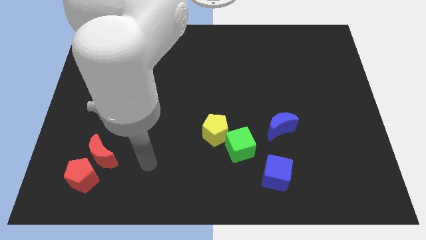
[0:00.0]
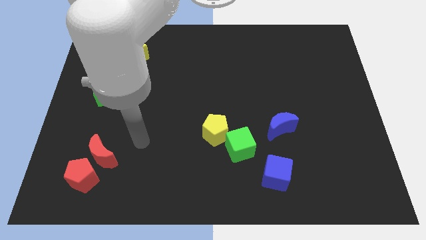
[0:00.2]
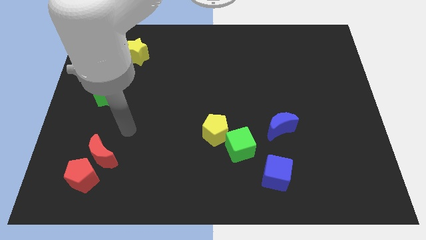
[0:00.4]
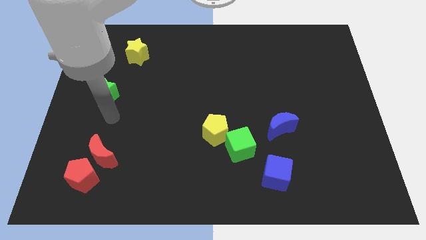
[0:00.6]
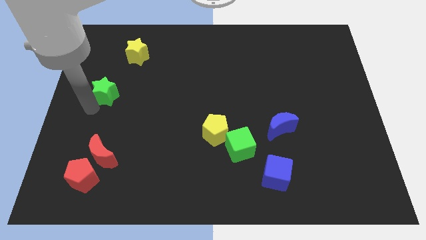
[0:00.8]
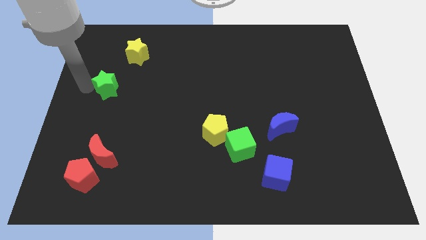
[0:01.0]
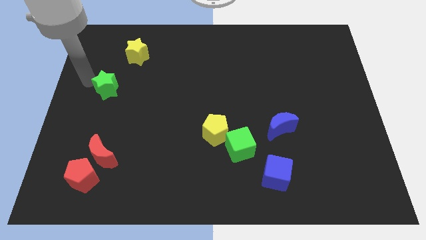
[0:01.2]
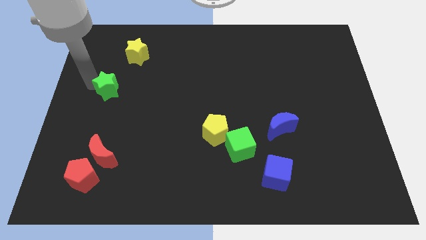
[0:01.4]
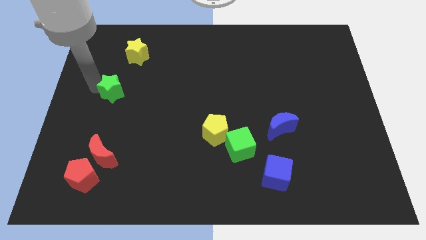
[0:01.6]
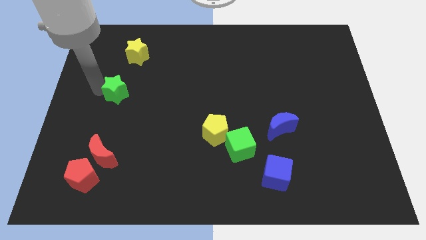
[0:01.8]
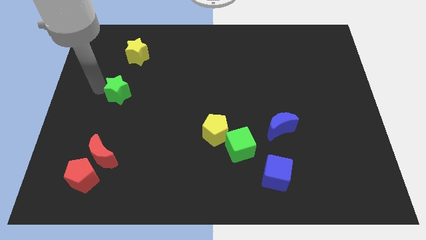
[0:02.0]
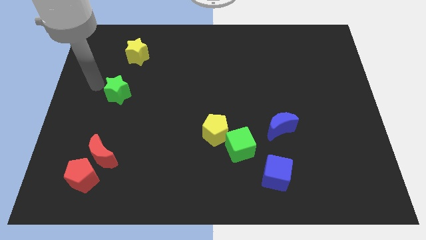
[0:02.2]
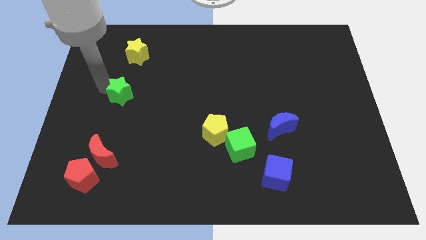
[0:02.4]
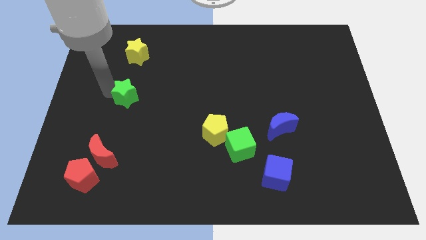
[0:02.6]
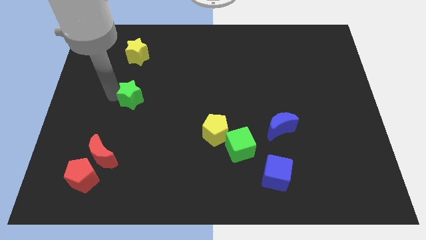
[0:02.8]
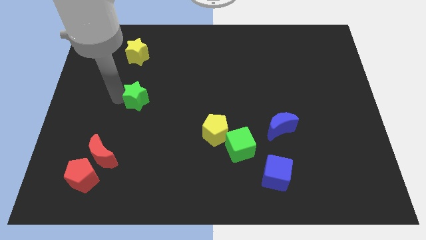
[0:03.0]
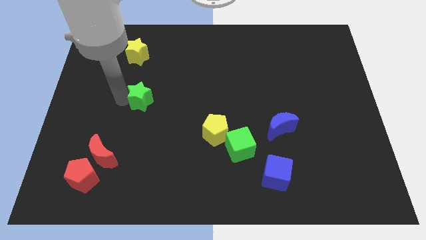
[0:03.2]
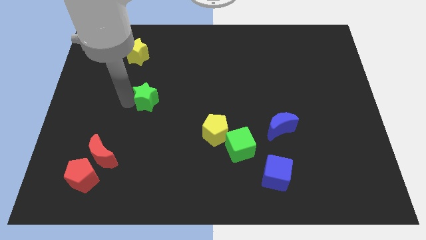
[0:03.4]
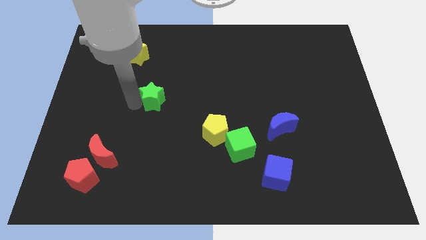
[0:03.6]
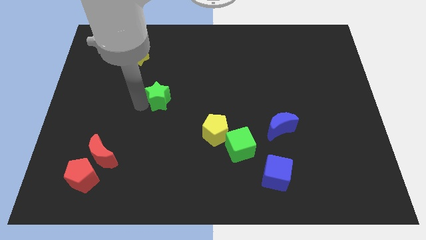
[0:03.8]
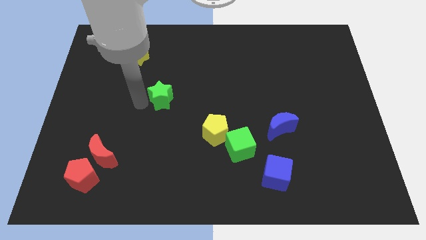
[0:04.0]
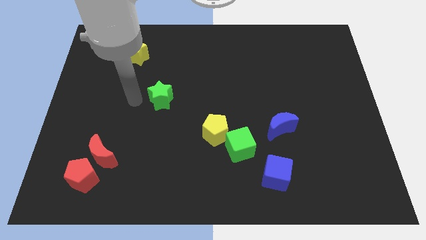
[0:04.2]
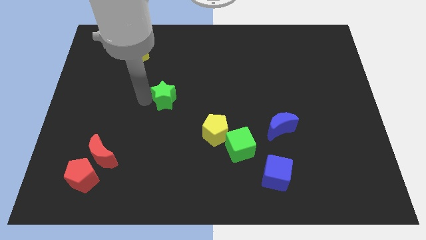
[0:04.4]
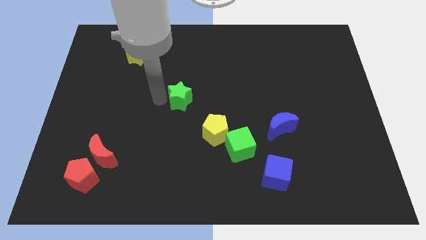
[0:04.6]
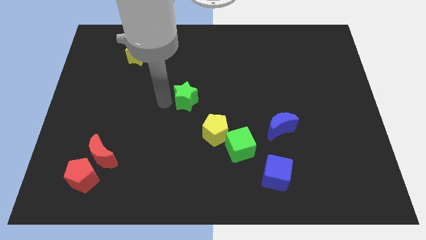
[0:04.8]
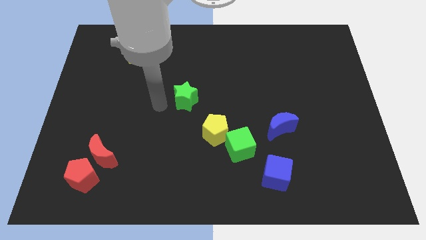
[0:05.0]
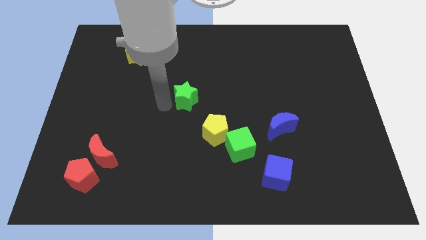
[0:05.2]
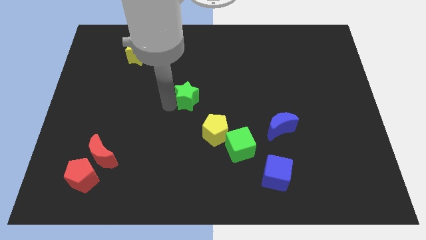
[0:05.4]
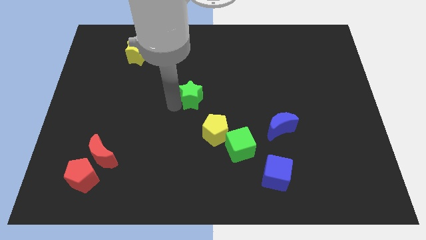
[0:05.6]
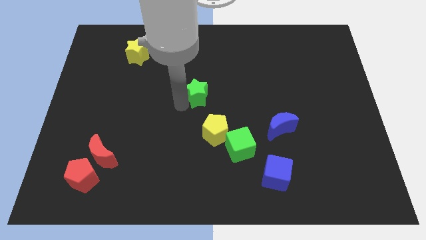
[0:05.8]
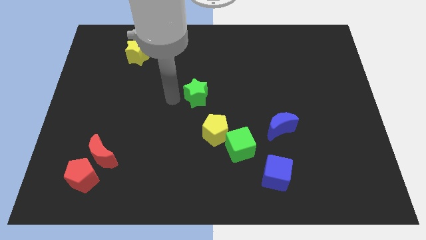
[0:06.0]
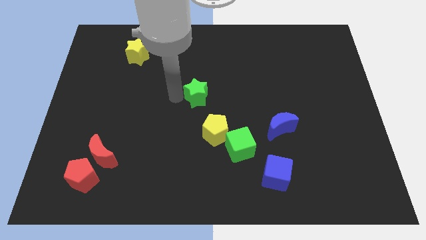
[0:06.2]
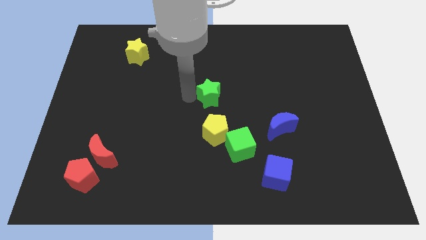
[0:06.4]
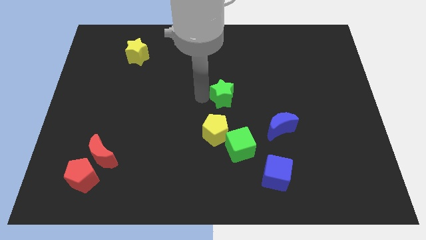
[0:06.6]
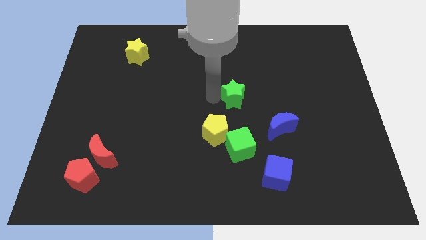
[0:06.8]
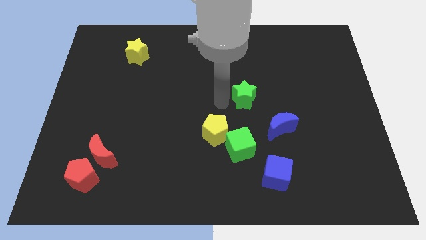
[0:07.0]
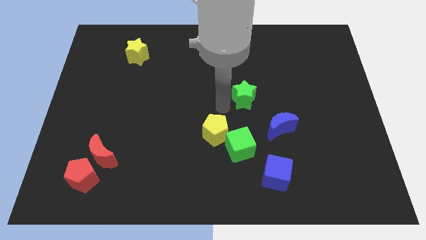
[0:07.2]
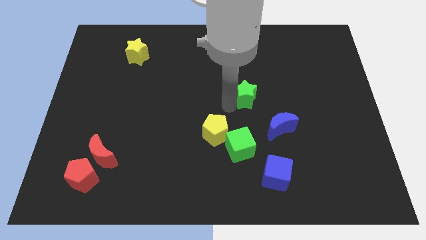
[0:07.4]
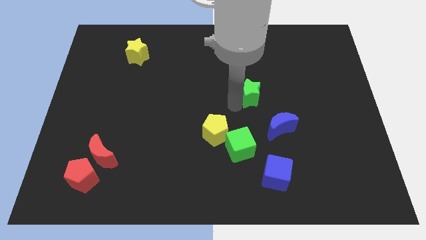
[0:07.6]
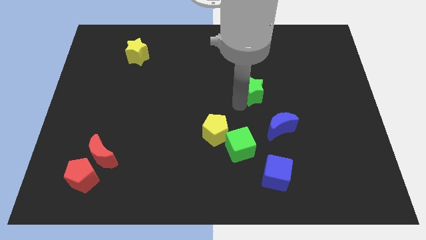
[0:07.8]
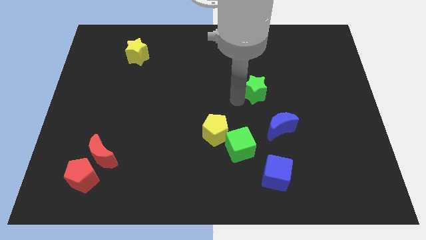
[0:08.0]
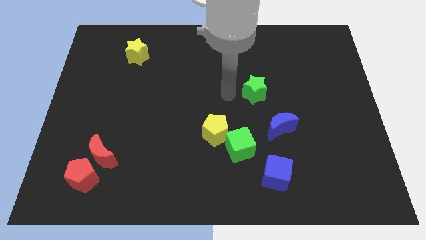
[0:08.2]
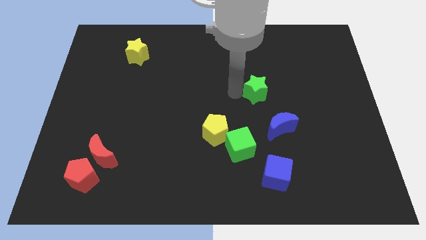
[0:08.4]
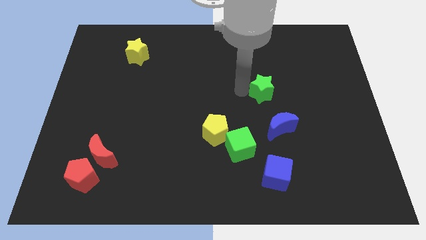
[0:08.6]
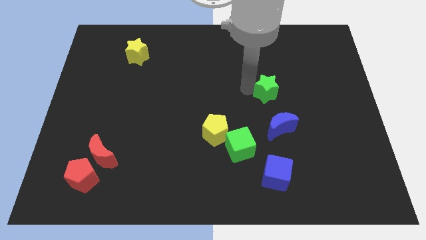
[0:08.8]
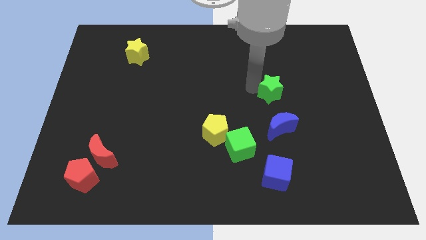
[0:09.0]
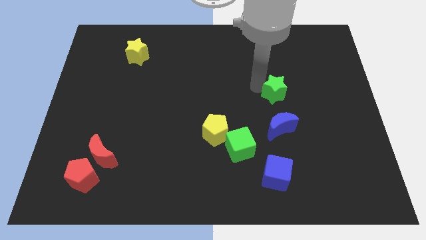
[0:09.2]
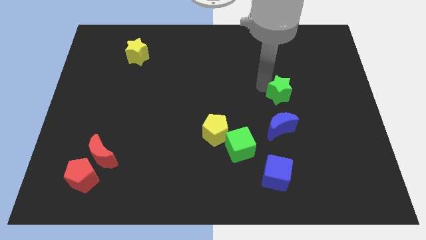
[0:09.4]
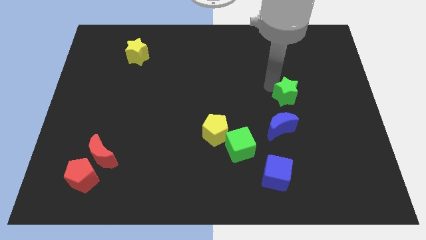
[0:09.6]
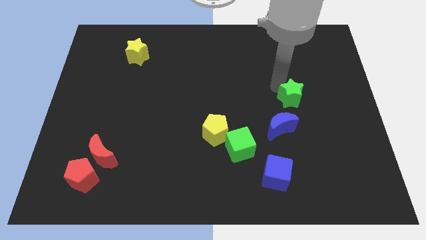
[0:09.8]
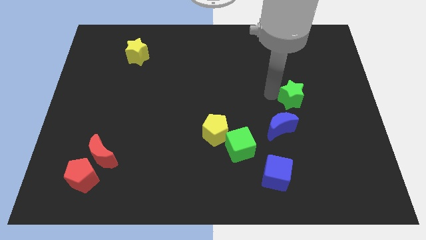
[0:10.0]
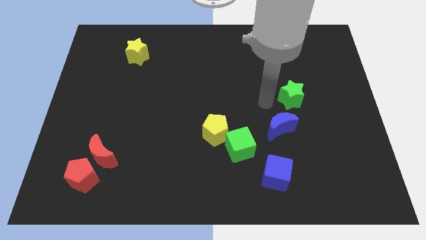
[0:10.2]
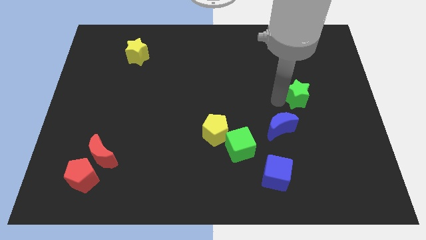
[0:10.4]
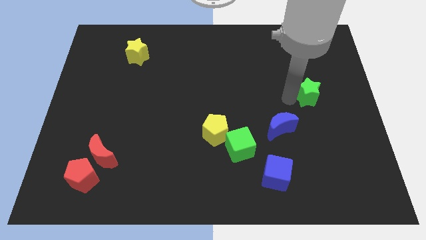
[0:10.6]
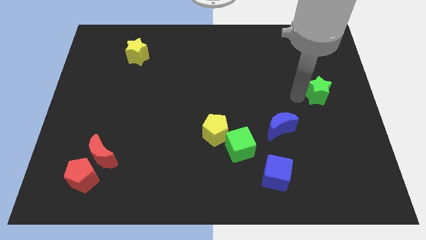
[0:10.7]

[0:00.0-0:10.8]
move the green star to the right side

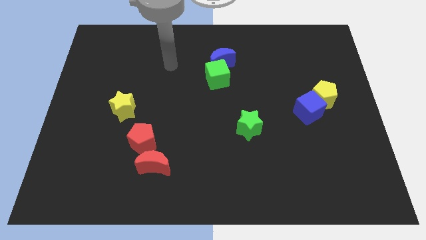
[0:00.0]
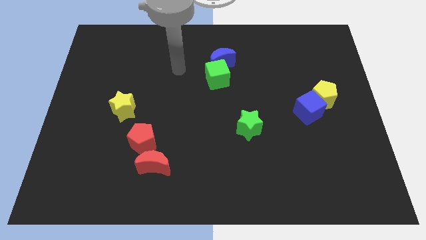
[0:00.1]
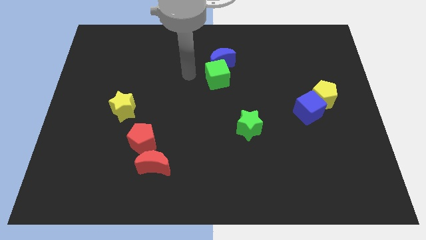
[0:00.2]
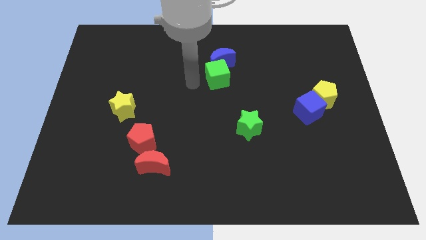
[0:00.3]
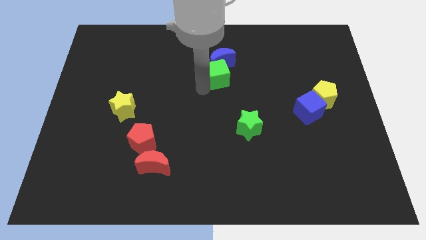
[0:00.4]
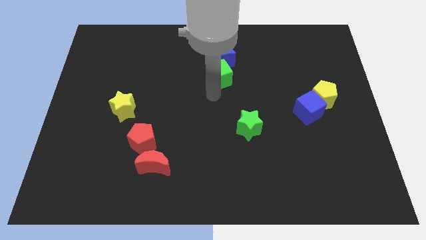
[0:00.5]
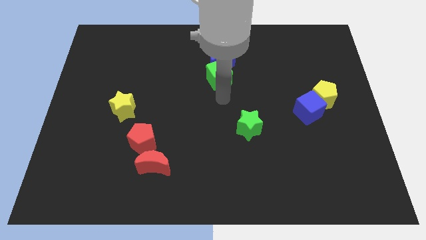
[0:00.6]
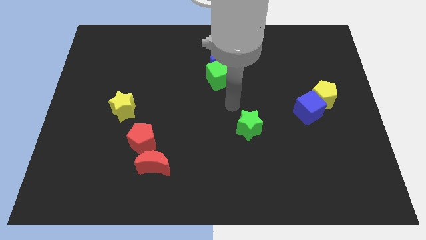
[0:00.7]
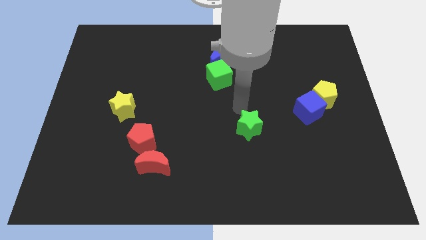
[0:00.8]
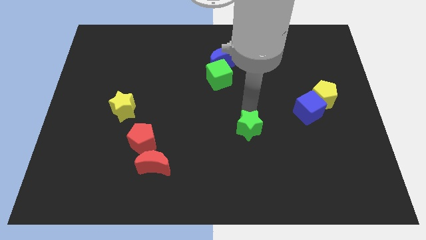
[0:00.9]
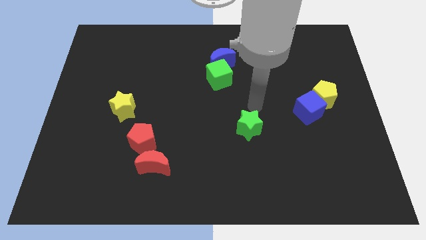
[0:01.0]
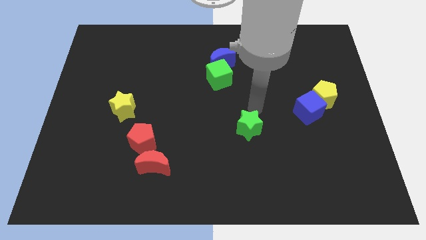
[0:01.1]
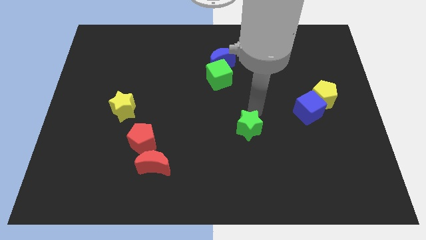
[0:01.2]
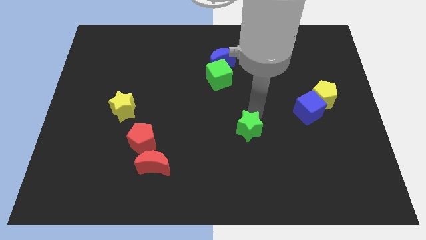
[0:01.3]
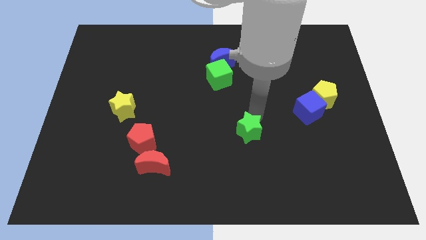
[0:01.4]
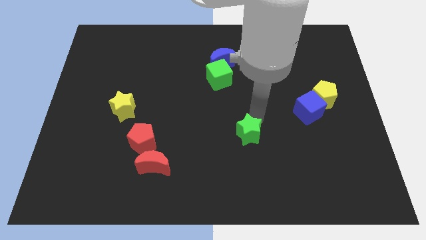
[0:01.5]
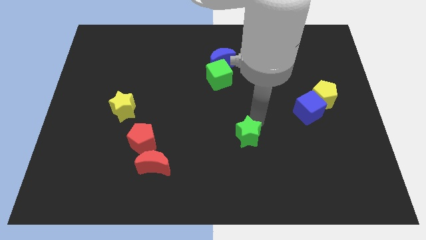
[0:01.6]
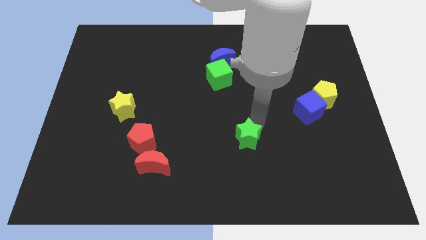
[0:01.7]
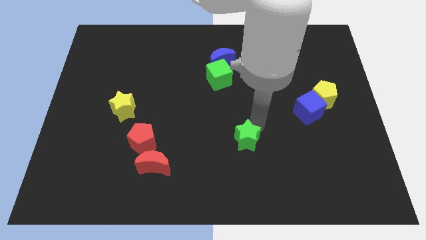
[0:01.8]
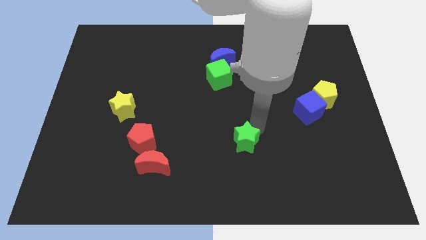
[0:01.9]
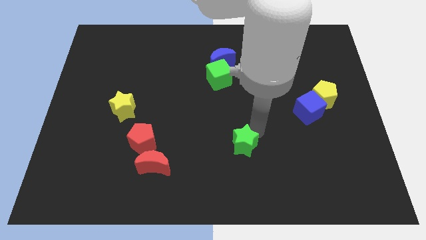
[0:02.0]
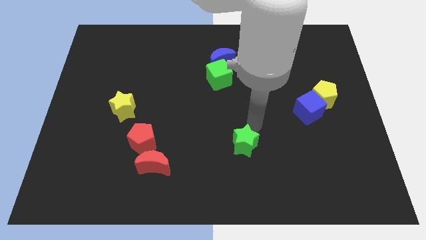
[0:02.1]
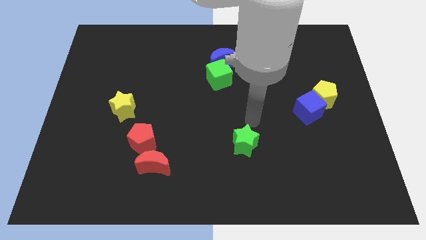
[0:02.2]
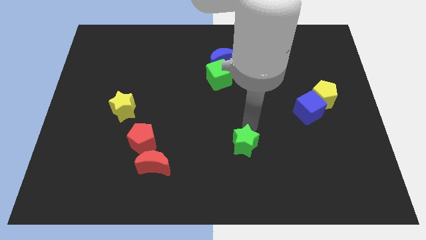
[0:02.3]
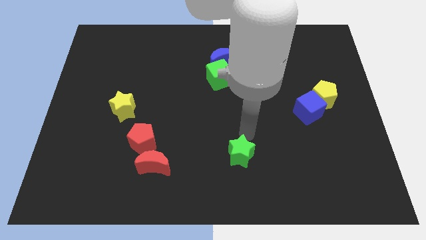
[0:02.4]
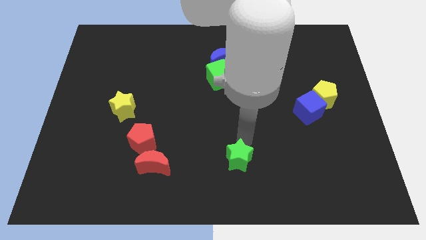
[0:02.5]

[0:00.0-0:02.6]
move the green star to the bottom side
